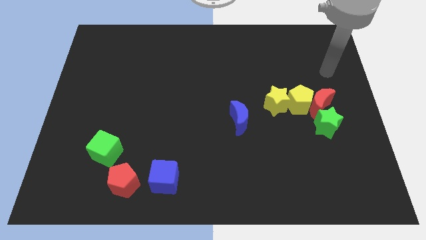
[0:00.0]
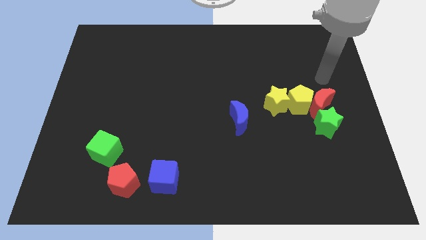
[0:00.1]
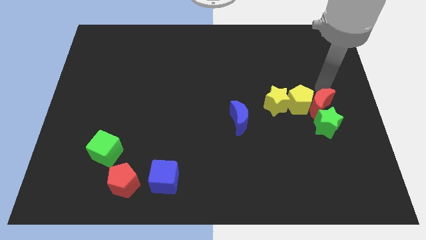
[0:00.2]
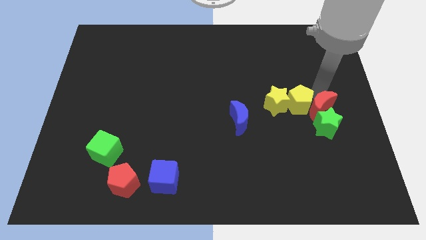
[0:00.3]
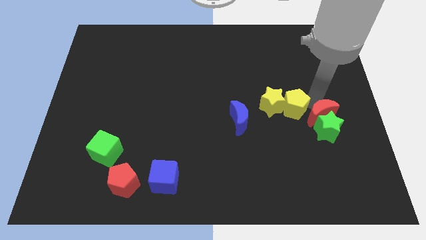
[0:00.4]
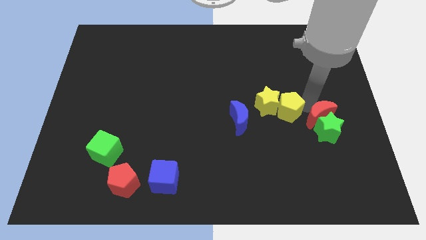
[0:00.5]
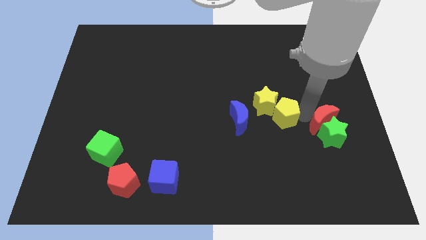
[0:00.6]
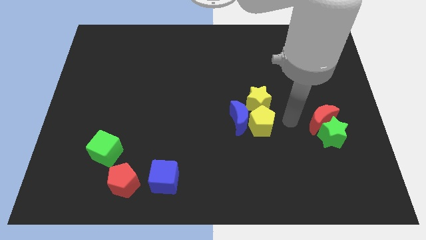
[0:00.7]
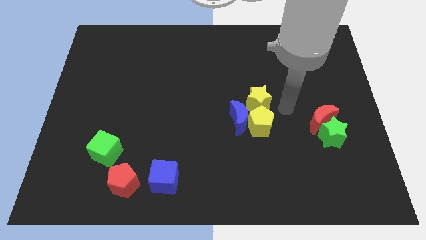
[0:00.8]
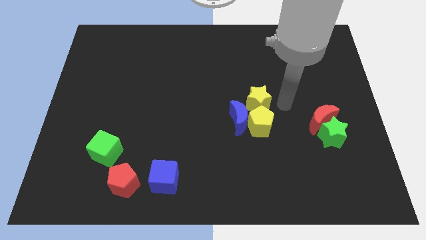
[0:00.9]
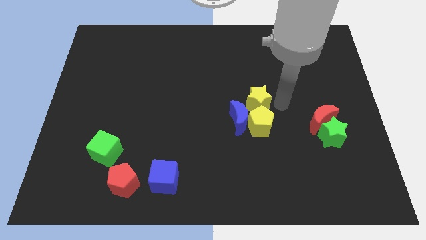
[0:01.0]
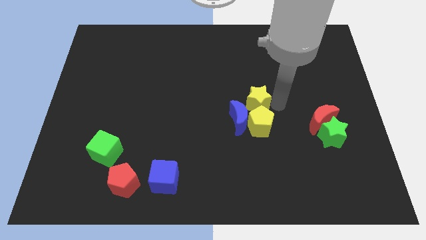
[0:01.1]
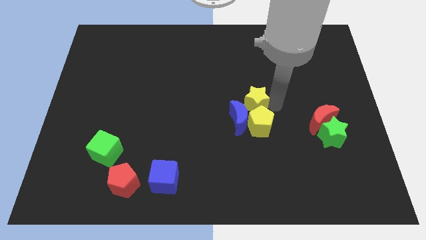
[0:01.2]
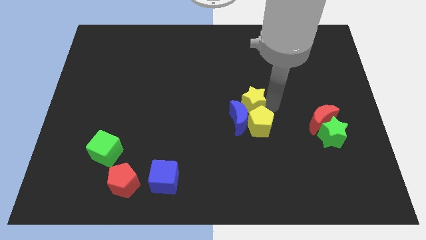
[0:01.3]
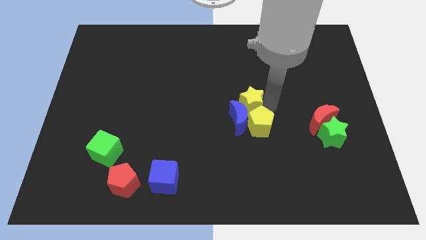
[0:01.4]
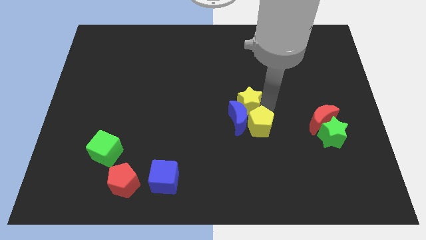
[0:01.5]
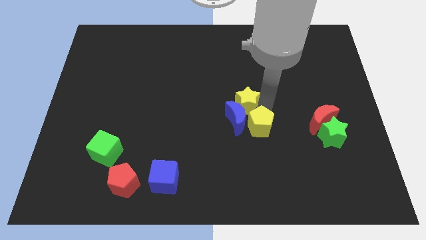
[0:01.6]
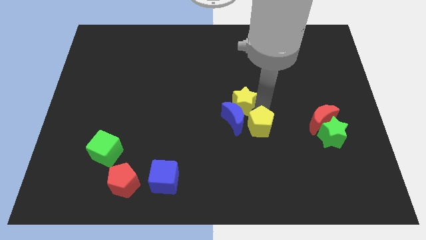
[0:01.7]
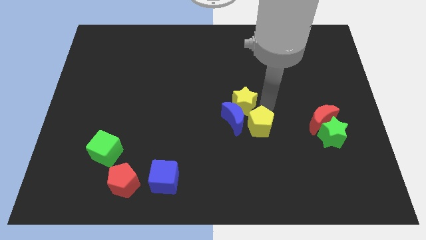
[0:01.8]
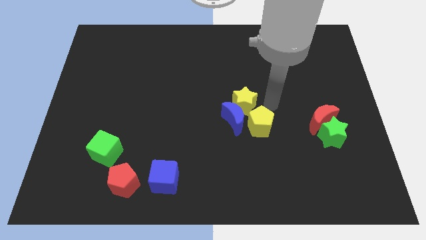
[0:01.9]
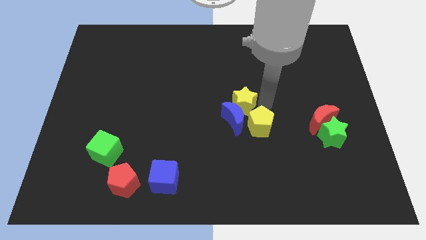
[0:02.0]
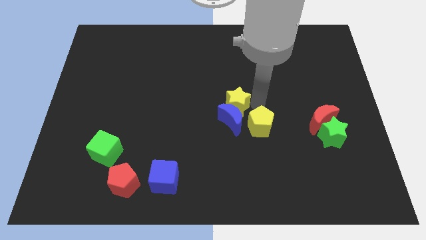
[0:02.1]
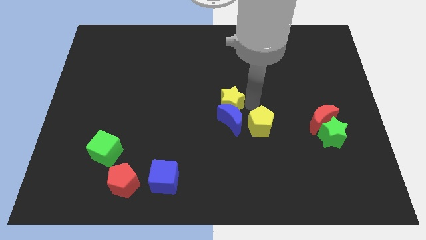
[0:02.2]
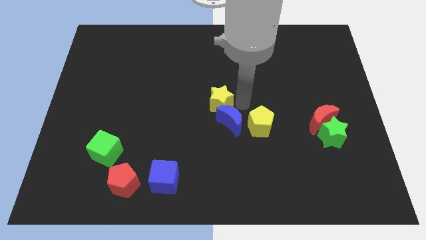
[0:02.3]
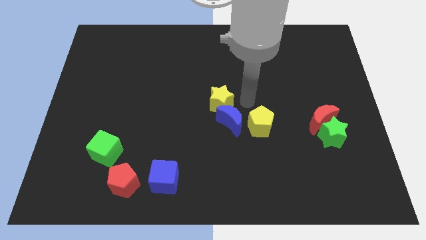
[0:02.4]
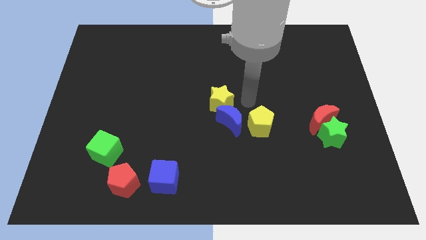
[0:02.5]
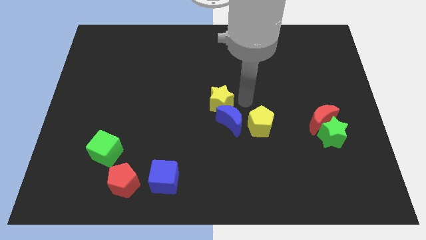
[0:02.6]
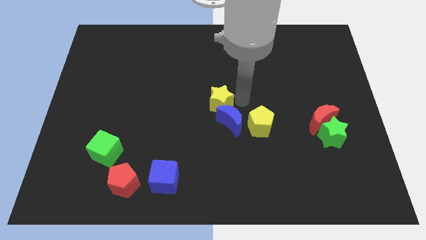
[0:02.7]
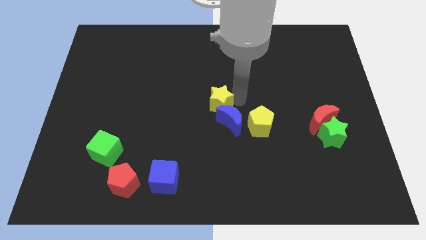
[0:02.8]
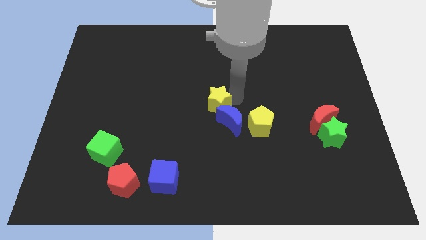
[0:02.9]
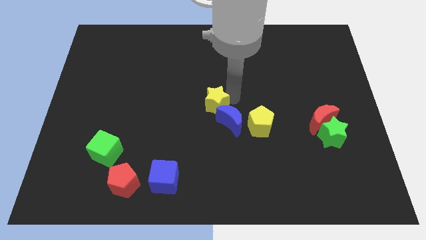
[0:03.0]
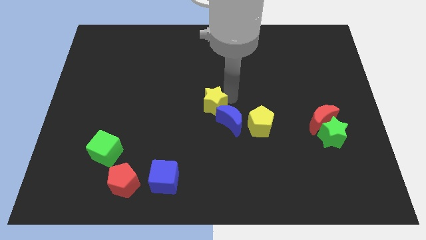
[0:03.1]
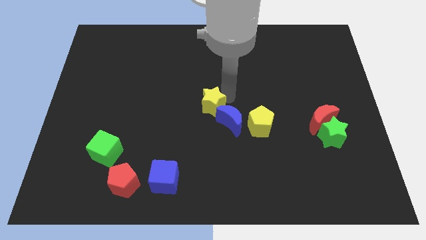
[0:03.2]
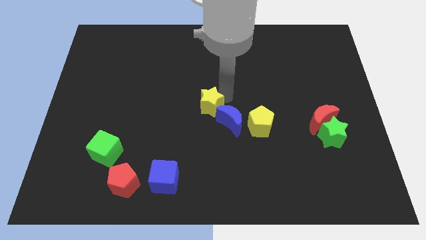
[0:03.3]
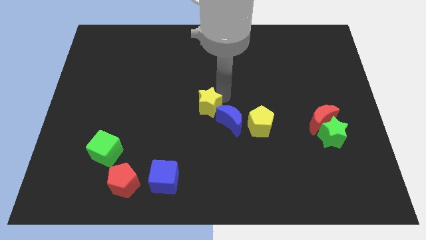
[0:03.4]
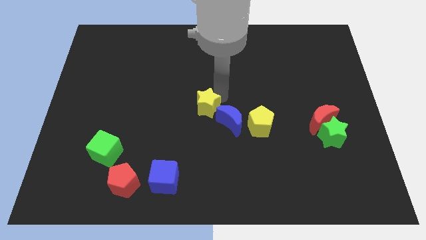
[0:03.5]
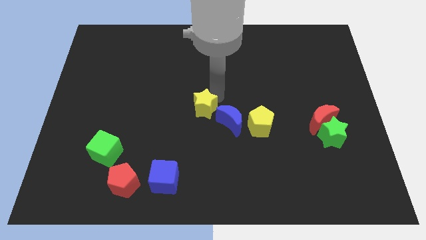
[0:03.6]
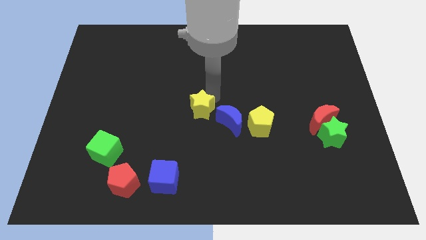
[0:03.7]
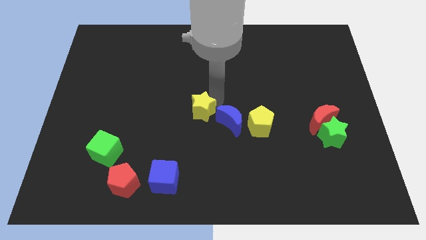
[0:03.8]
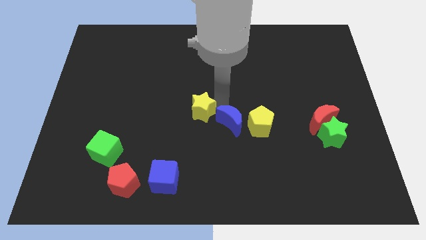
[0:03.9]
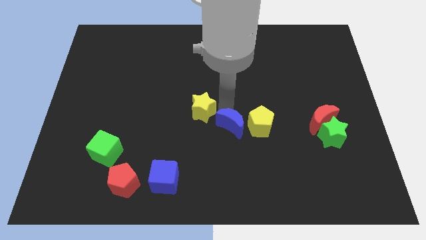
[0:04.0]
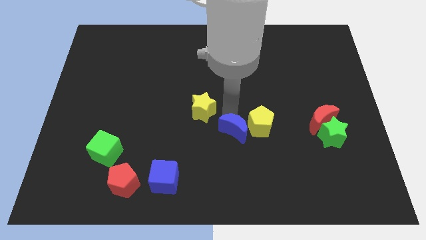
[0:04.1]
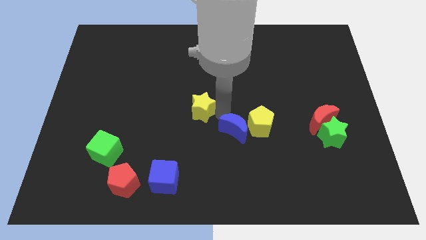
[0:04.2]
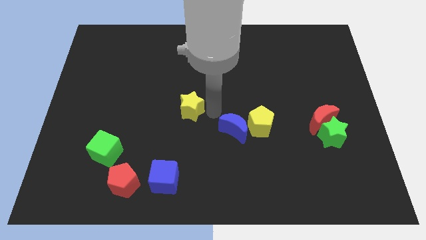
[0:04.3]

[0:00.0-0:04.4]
push the yellow star left

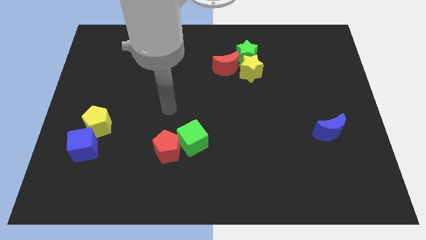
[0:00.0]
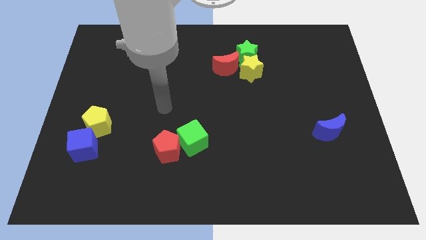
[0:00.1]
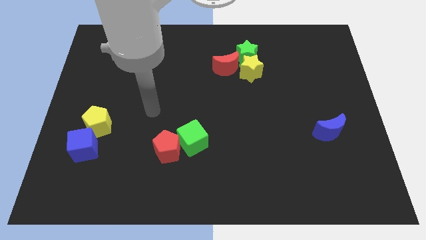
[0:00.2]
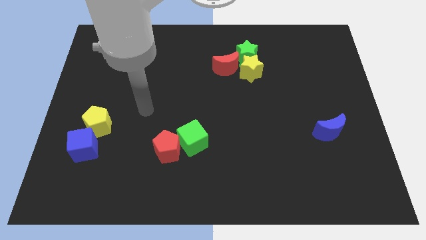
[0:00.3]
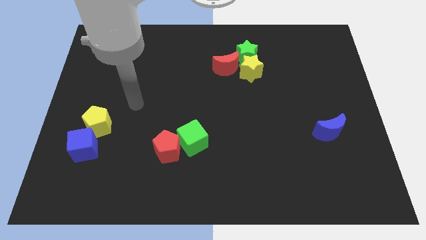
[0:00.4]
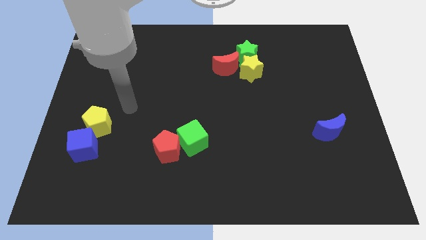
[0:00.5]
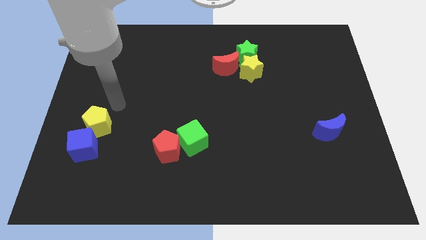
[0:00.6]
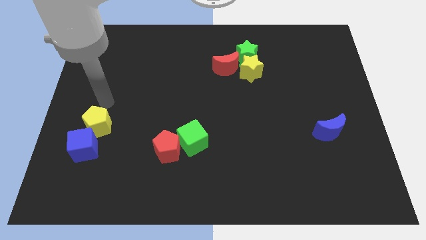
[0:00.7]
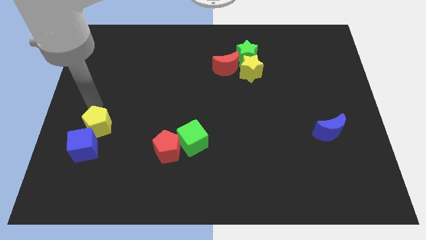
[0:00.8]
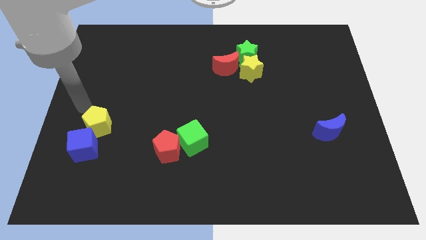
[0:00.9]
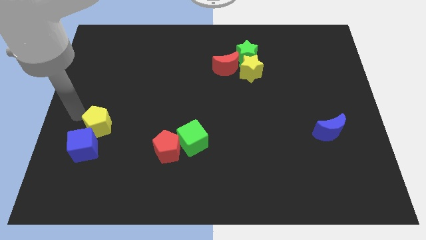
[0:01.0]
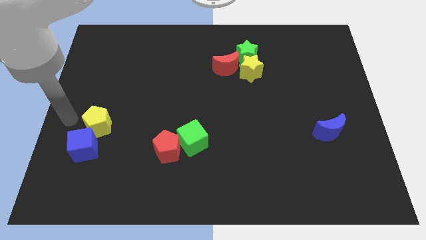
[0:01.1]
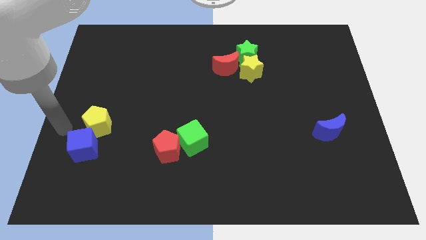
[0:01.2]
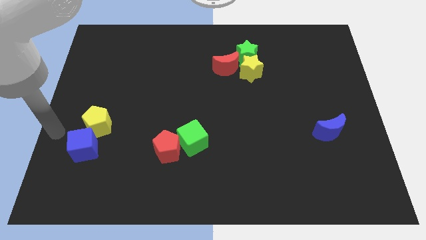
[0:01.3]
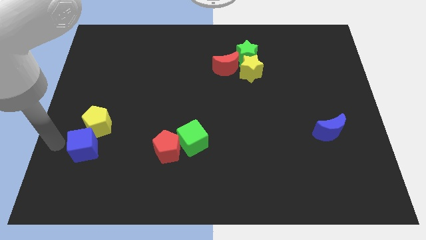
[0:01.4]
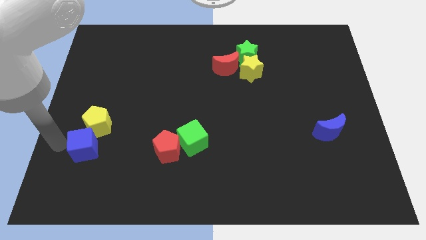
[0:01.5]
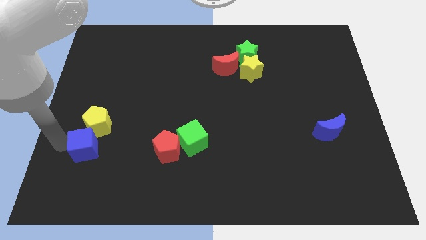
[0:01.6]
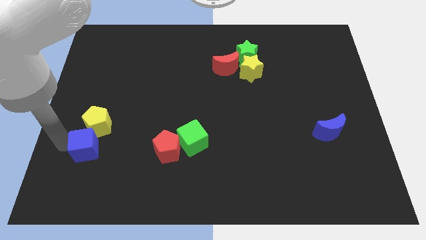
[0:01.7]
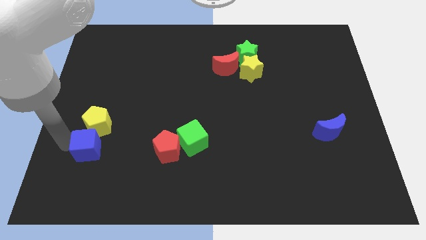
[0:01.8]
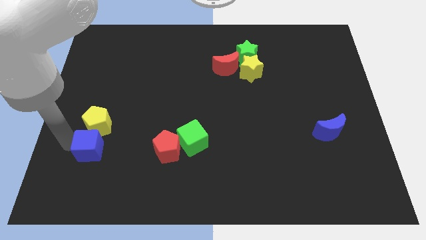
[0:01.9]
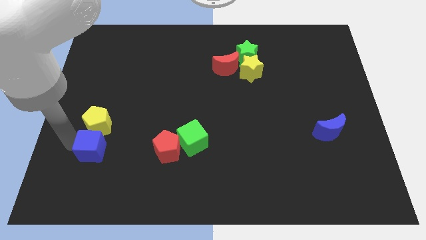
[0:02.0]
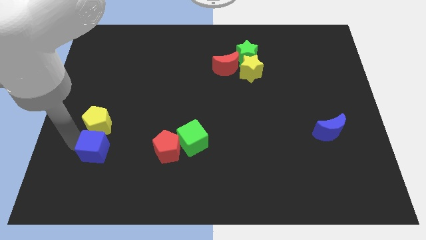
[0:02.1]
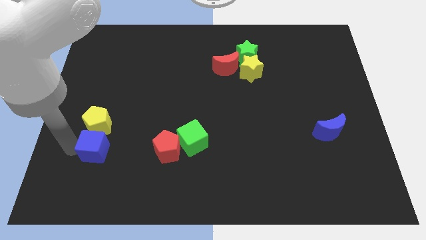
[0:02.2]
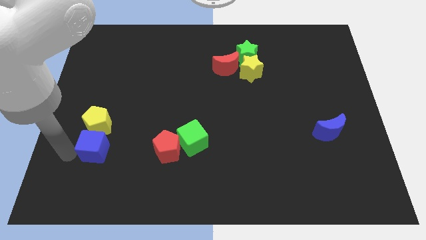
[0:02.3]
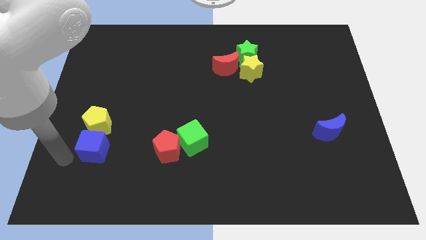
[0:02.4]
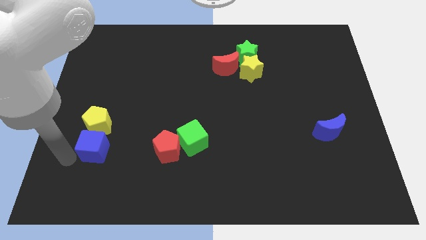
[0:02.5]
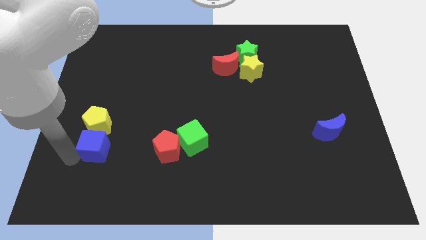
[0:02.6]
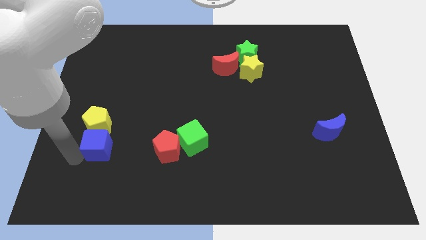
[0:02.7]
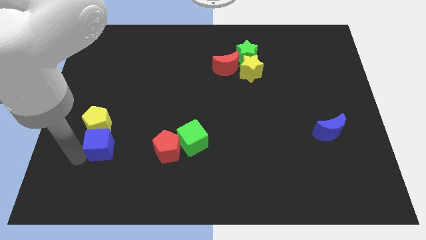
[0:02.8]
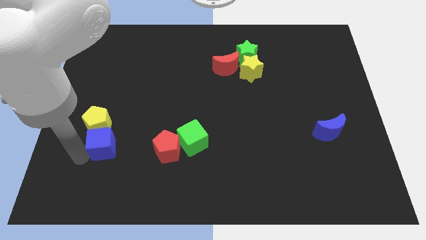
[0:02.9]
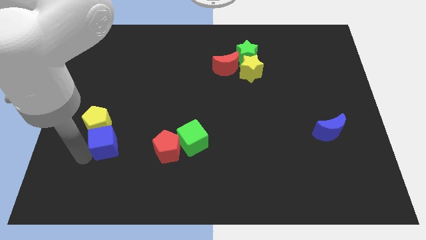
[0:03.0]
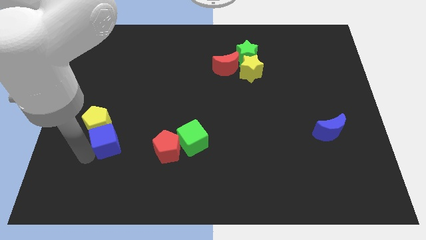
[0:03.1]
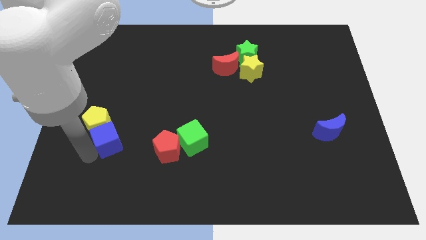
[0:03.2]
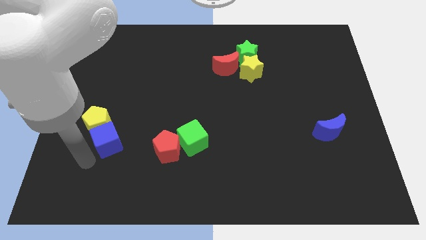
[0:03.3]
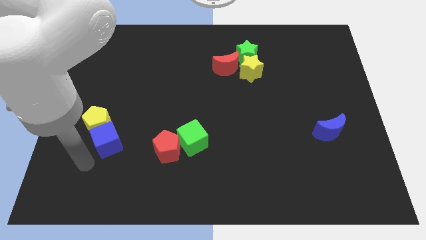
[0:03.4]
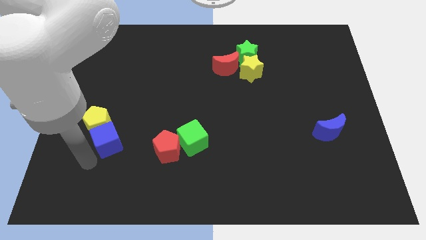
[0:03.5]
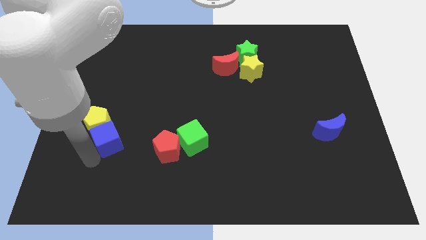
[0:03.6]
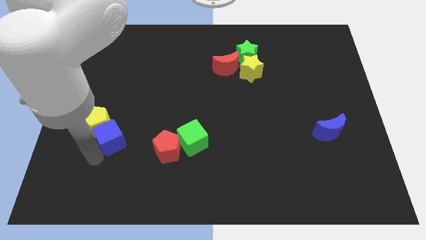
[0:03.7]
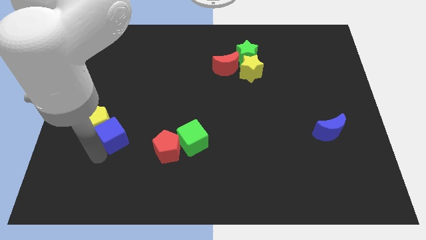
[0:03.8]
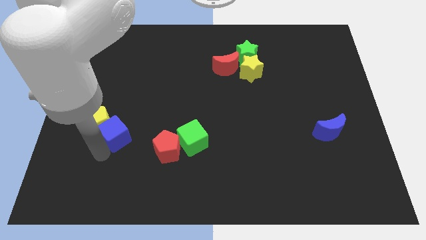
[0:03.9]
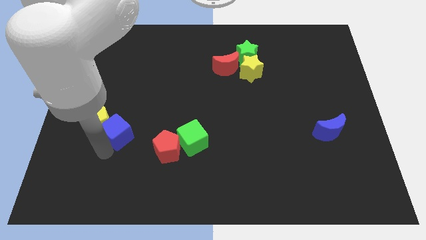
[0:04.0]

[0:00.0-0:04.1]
push the blue cube up and to the right a bit
